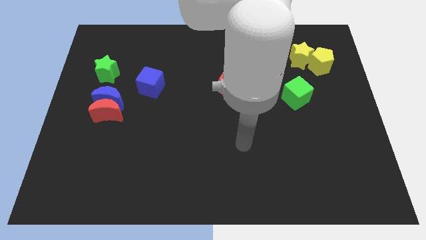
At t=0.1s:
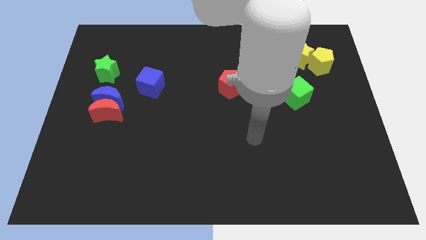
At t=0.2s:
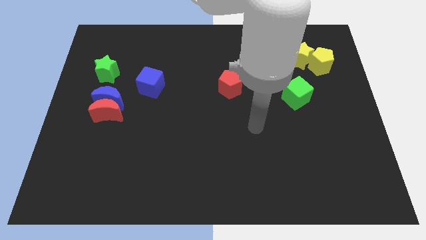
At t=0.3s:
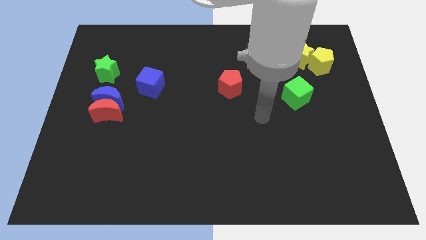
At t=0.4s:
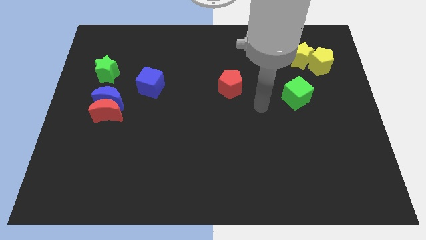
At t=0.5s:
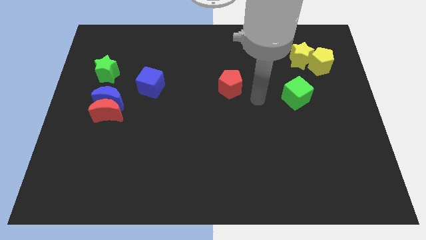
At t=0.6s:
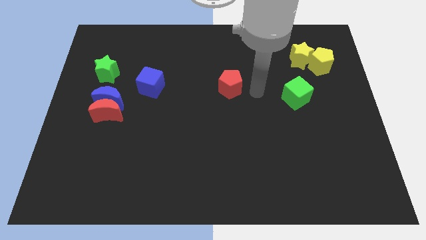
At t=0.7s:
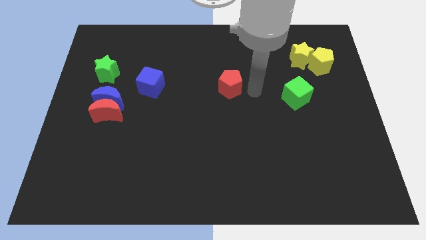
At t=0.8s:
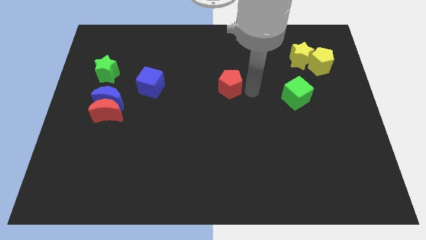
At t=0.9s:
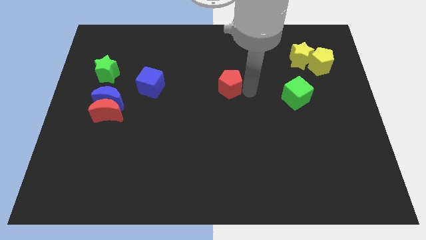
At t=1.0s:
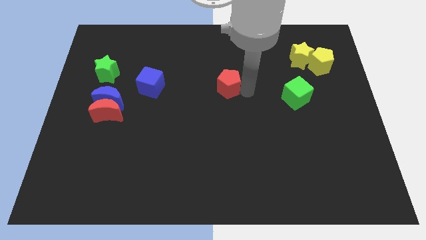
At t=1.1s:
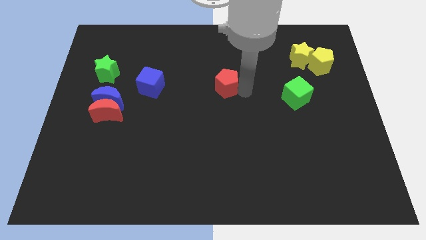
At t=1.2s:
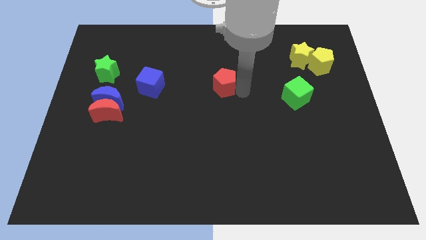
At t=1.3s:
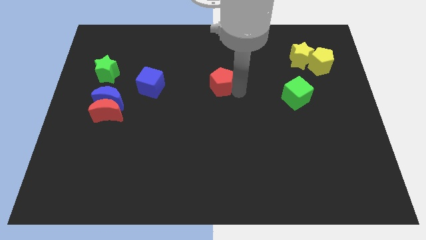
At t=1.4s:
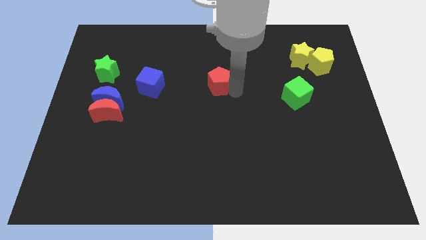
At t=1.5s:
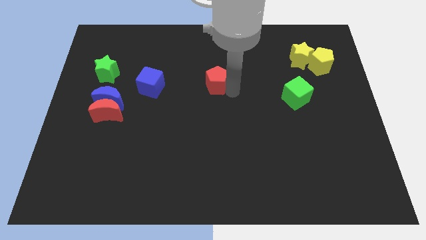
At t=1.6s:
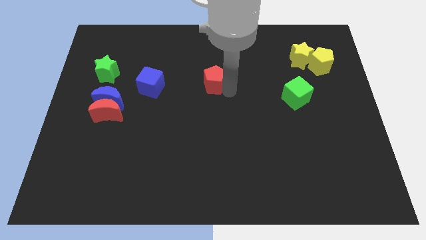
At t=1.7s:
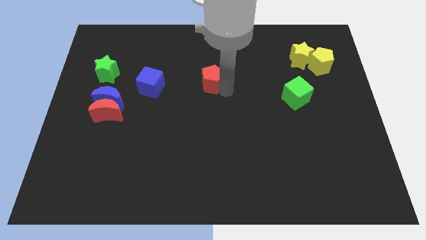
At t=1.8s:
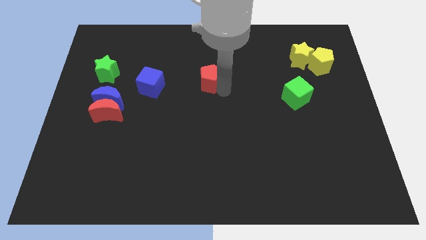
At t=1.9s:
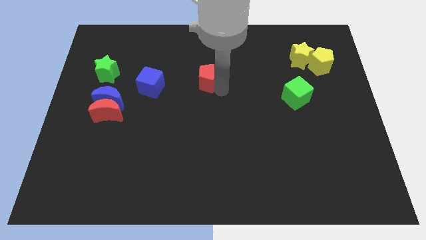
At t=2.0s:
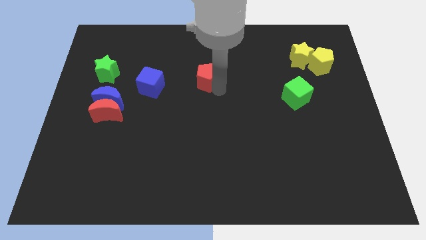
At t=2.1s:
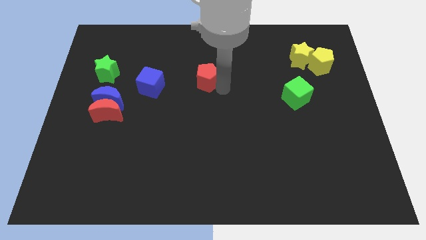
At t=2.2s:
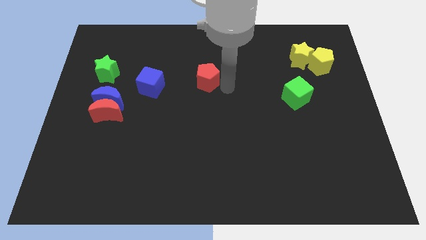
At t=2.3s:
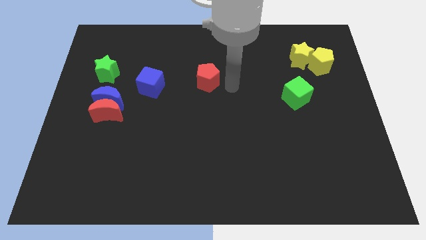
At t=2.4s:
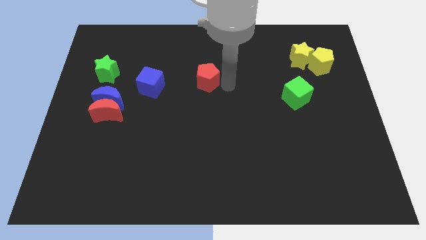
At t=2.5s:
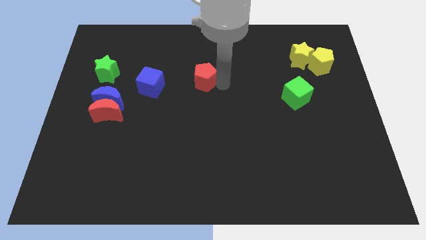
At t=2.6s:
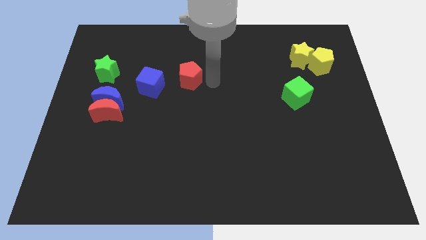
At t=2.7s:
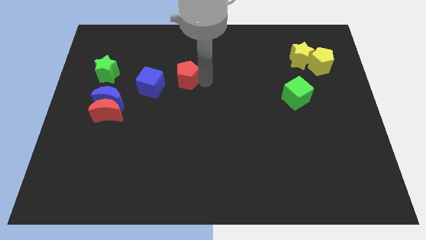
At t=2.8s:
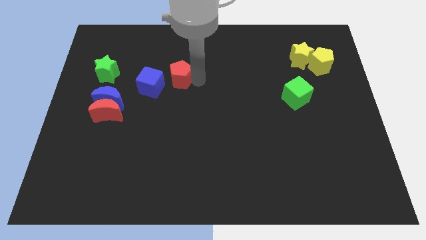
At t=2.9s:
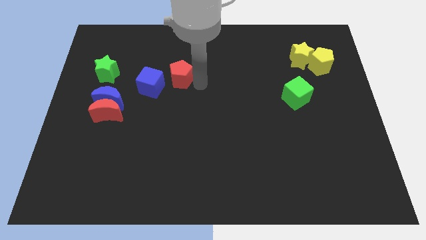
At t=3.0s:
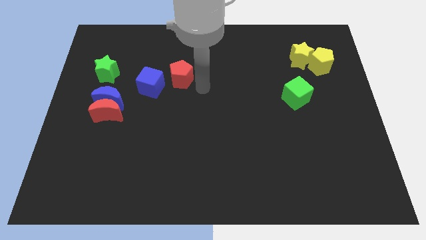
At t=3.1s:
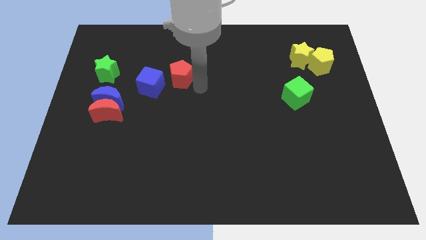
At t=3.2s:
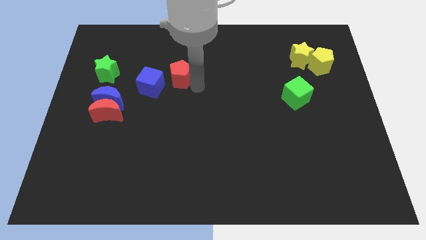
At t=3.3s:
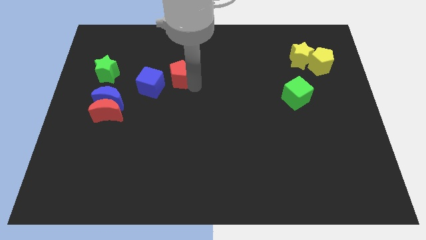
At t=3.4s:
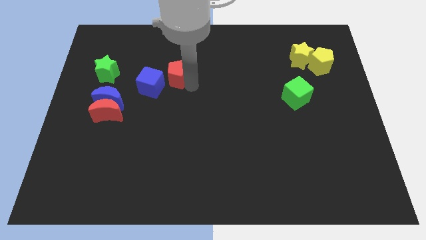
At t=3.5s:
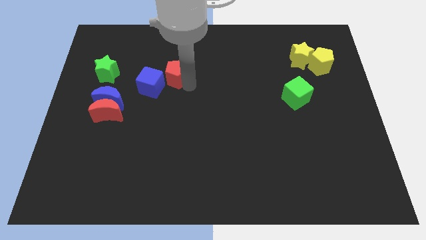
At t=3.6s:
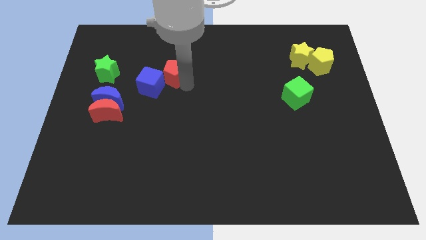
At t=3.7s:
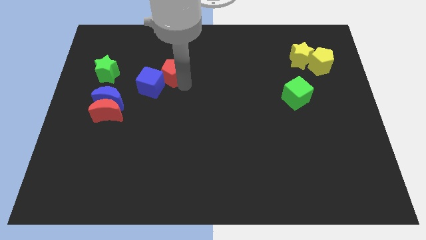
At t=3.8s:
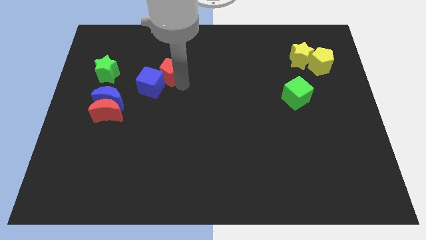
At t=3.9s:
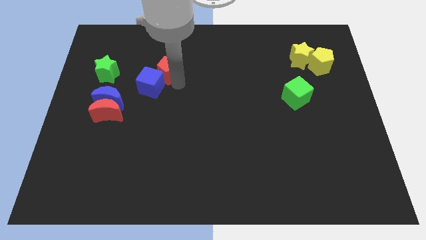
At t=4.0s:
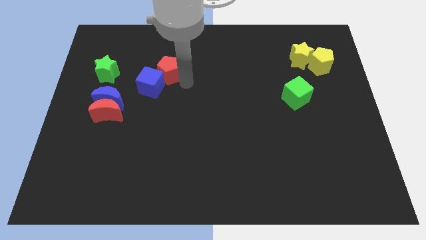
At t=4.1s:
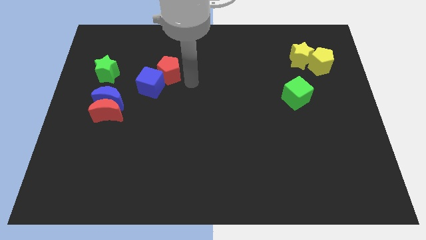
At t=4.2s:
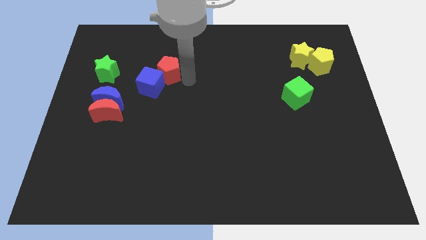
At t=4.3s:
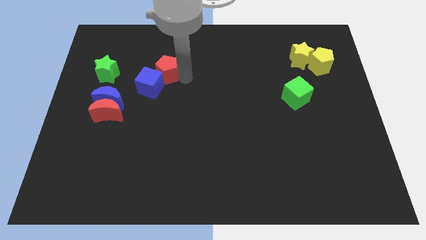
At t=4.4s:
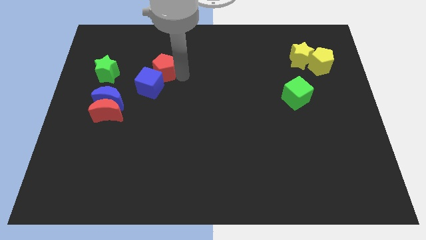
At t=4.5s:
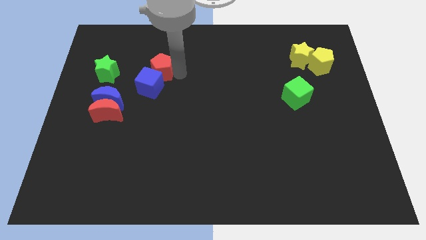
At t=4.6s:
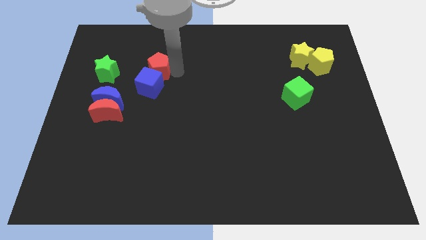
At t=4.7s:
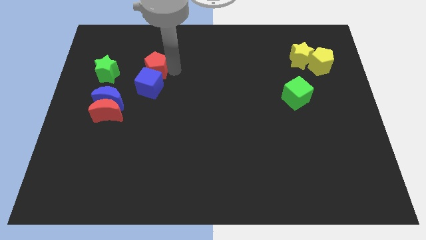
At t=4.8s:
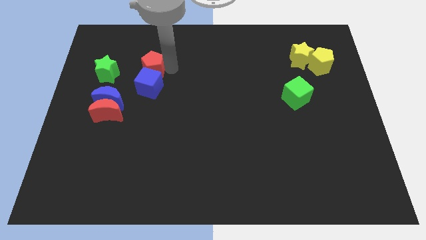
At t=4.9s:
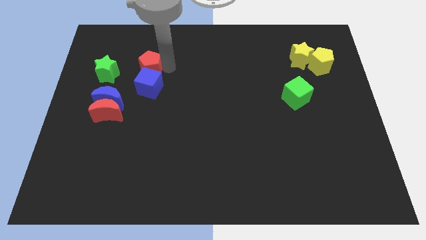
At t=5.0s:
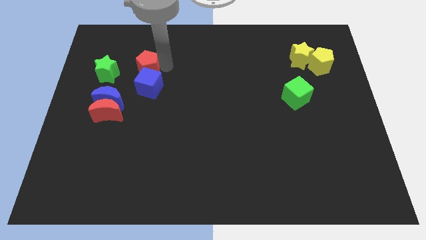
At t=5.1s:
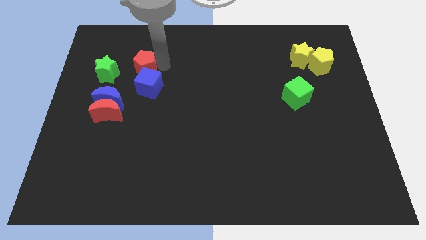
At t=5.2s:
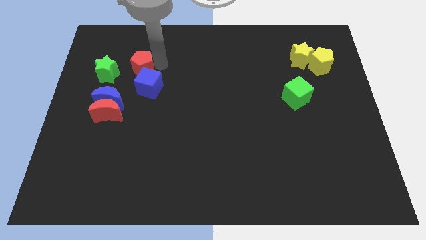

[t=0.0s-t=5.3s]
slide the red pentagon to the top right side of the green star

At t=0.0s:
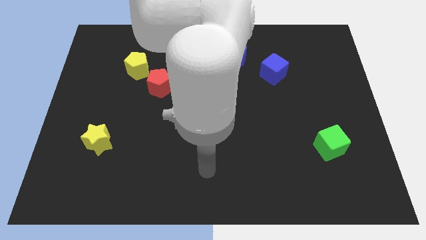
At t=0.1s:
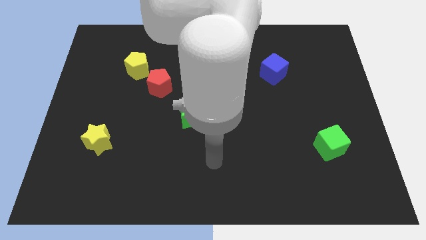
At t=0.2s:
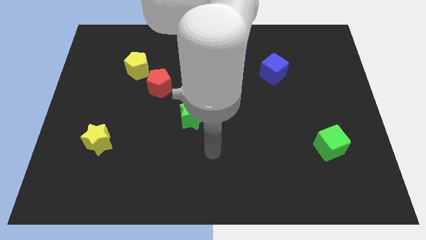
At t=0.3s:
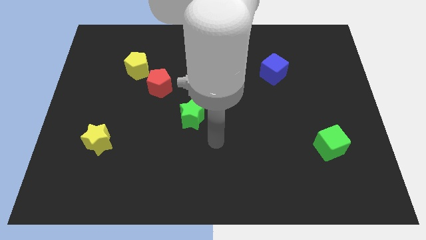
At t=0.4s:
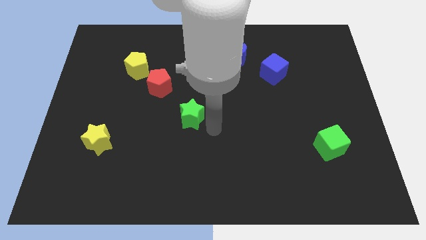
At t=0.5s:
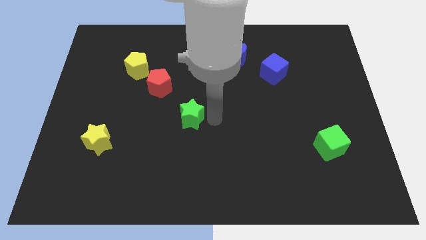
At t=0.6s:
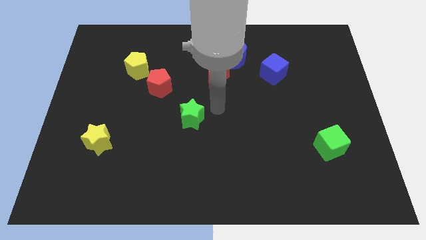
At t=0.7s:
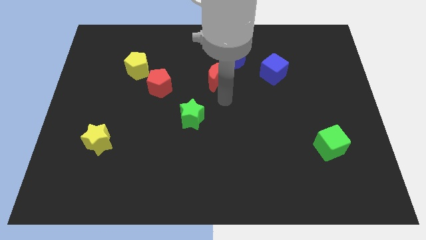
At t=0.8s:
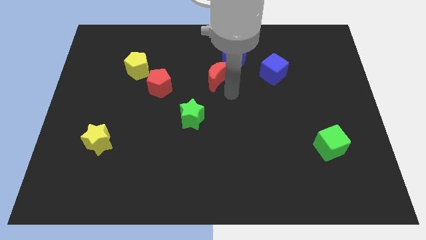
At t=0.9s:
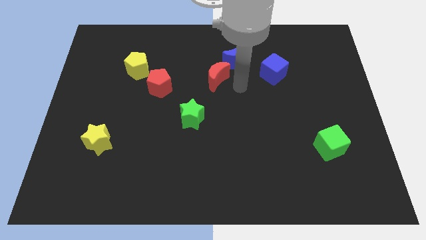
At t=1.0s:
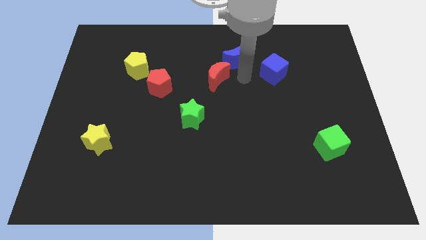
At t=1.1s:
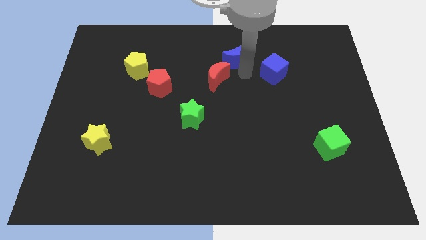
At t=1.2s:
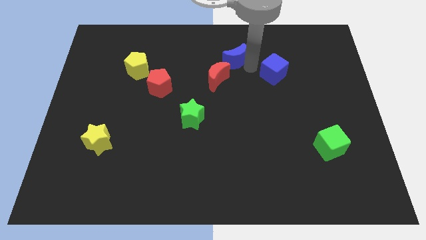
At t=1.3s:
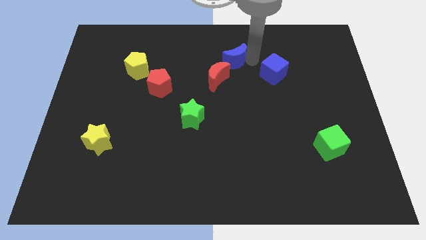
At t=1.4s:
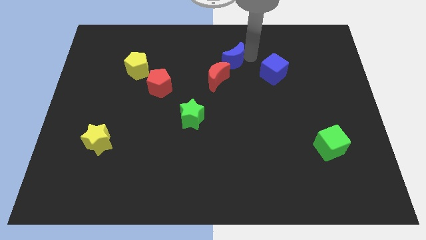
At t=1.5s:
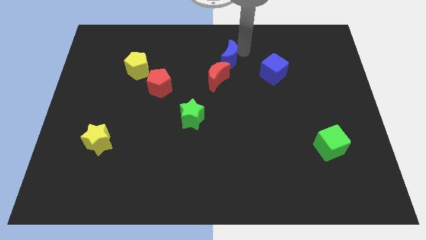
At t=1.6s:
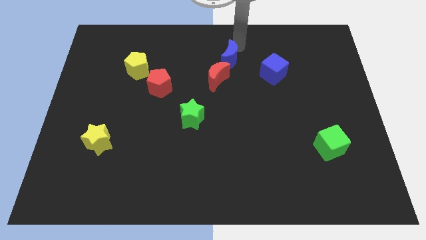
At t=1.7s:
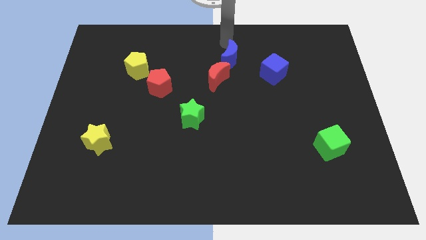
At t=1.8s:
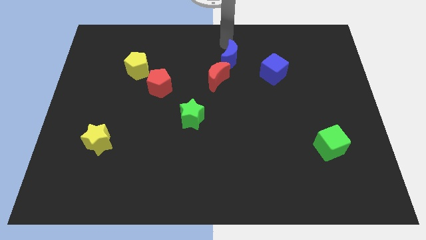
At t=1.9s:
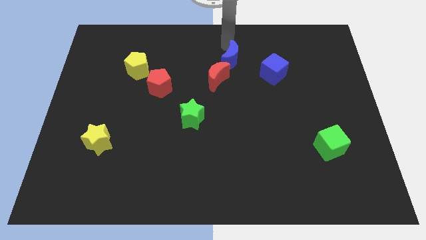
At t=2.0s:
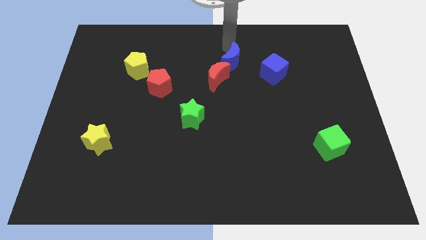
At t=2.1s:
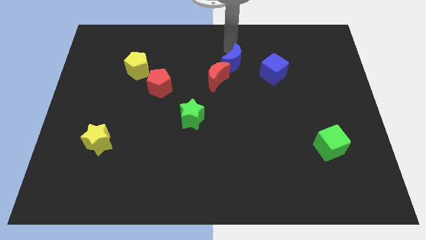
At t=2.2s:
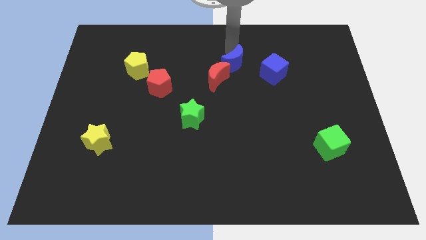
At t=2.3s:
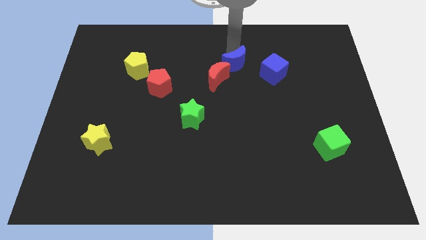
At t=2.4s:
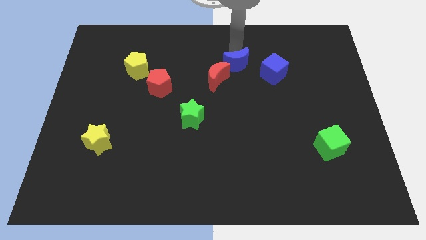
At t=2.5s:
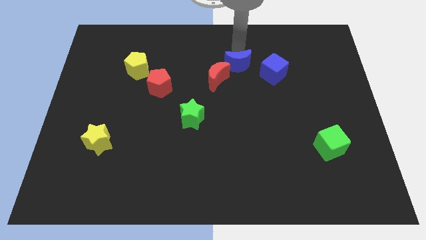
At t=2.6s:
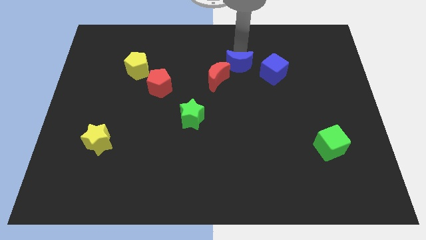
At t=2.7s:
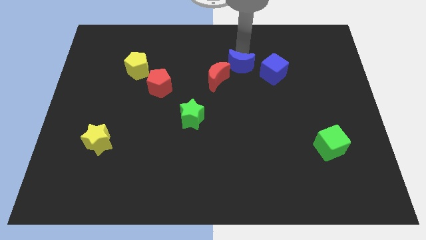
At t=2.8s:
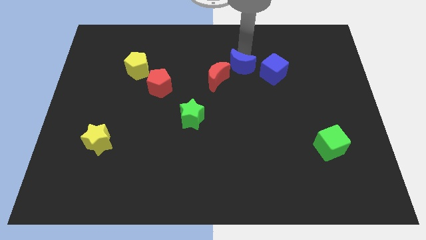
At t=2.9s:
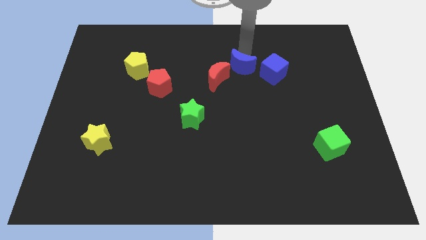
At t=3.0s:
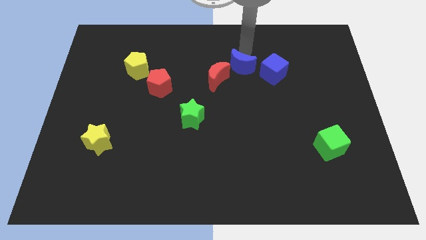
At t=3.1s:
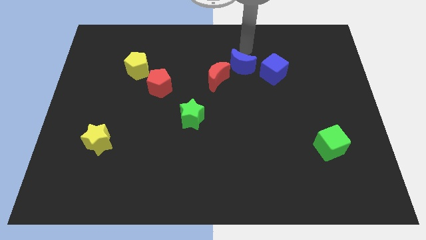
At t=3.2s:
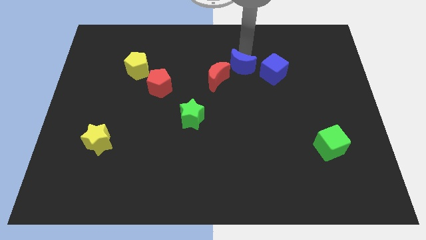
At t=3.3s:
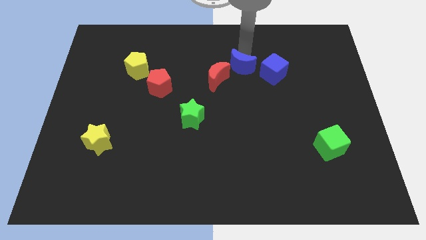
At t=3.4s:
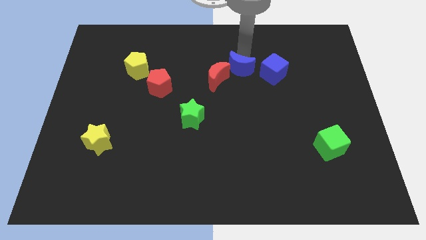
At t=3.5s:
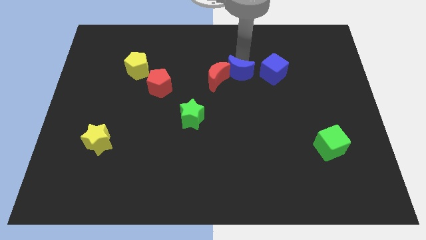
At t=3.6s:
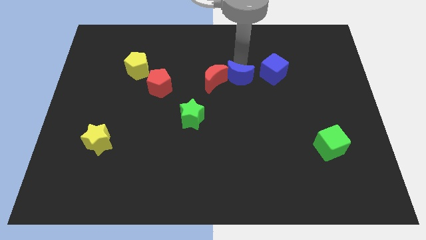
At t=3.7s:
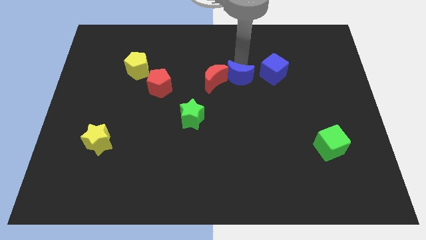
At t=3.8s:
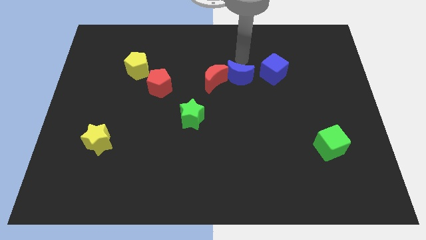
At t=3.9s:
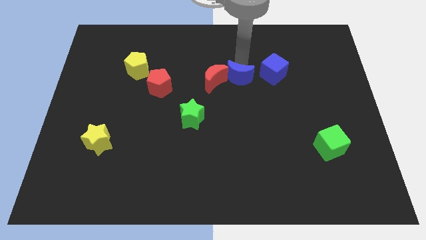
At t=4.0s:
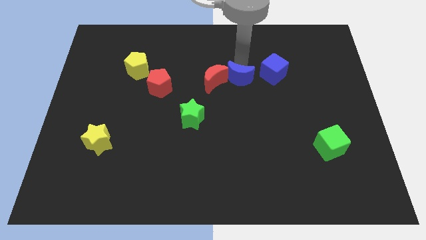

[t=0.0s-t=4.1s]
push the blue moon to the bottom right of the red moon
